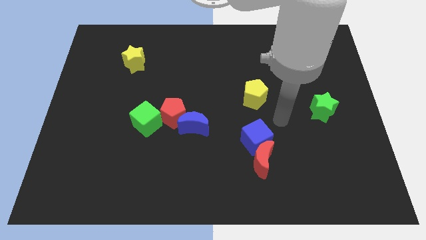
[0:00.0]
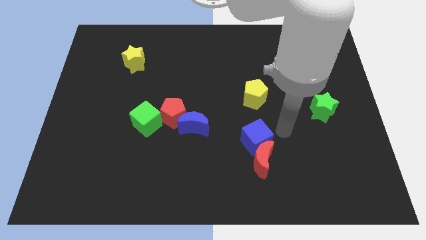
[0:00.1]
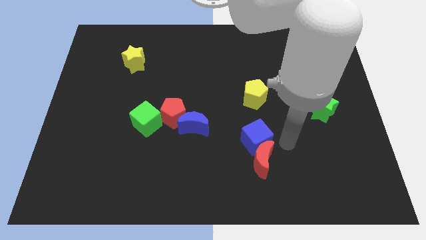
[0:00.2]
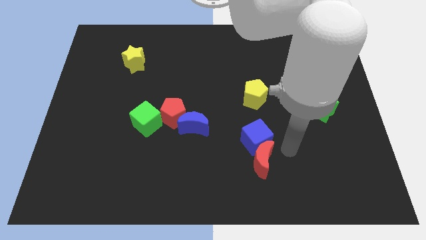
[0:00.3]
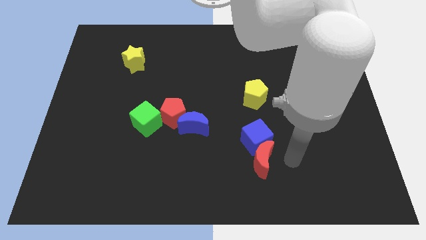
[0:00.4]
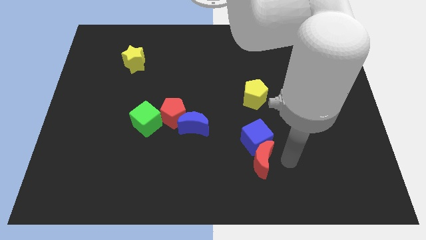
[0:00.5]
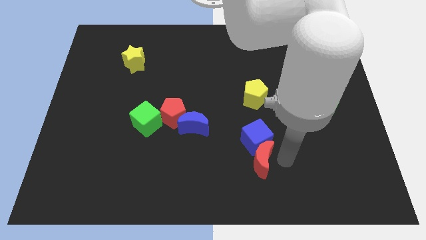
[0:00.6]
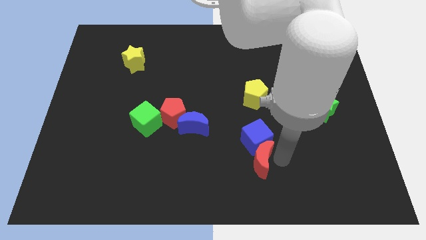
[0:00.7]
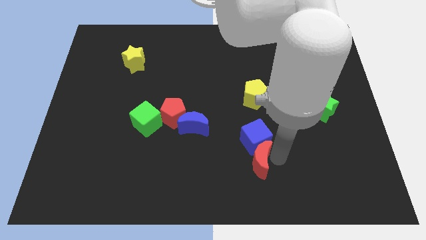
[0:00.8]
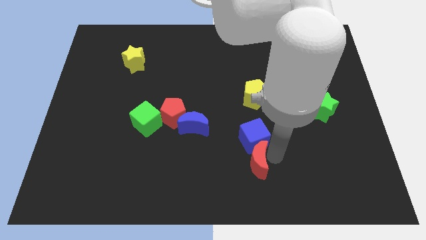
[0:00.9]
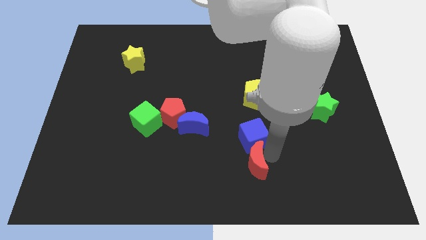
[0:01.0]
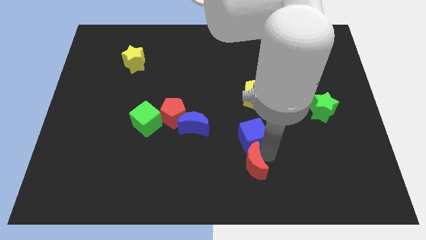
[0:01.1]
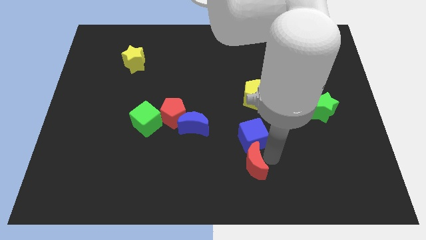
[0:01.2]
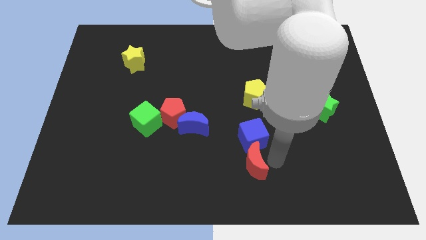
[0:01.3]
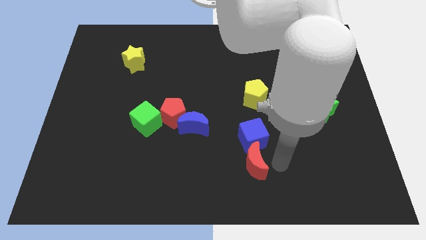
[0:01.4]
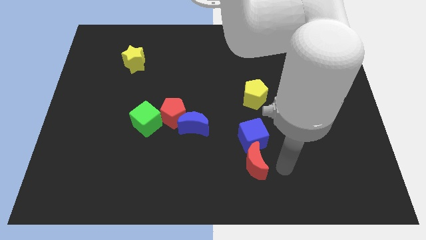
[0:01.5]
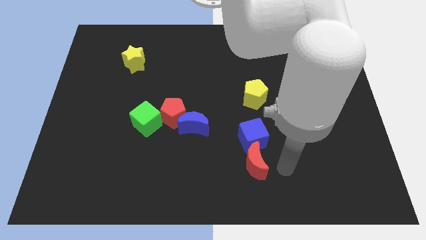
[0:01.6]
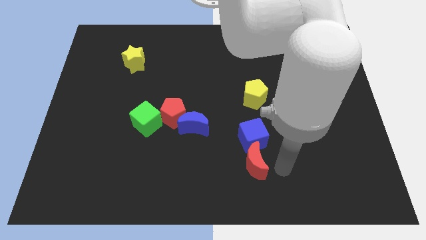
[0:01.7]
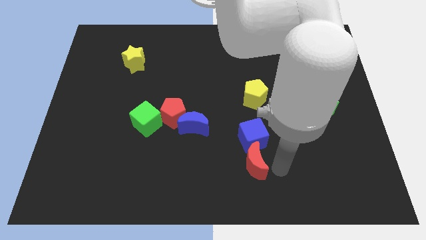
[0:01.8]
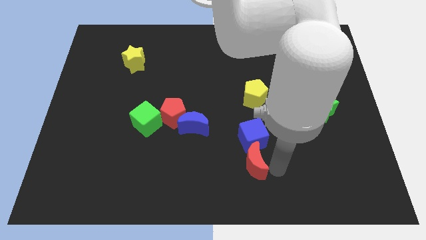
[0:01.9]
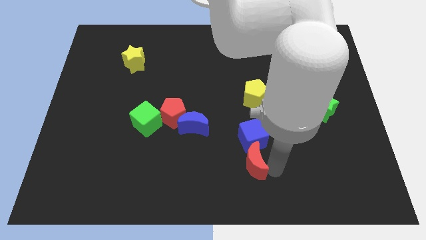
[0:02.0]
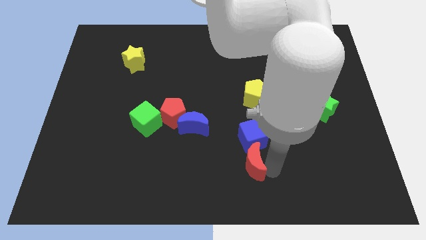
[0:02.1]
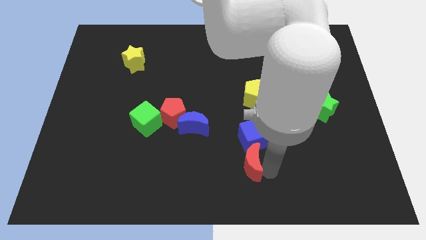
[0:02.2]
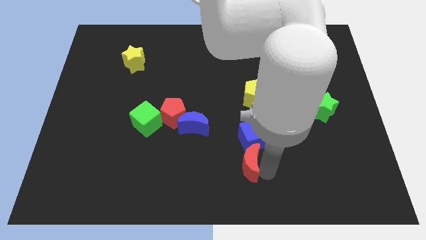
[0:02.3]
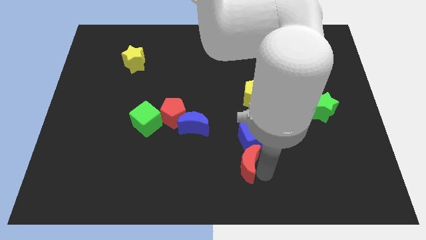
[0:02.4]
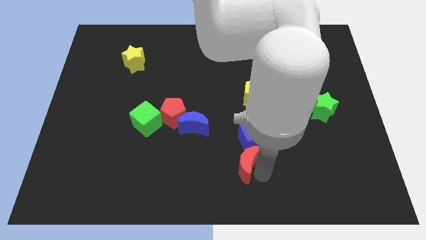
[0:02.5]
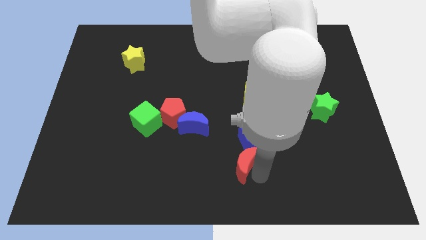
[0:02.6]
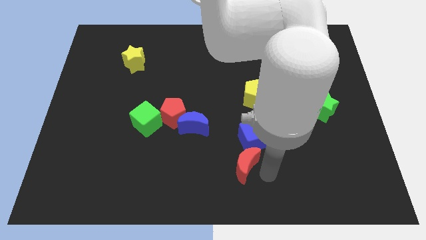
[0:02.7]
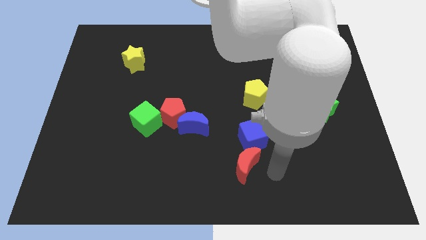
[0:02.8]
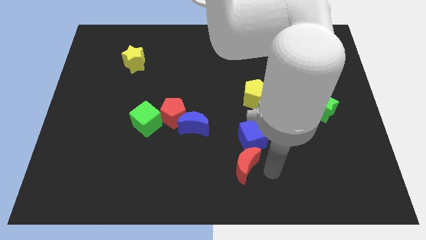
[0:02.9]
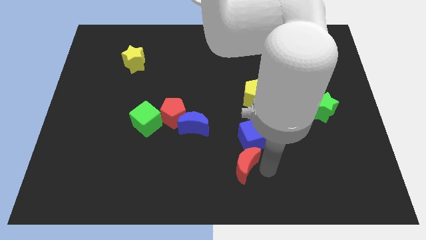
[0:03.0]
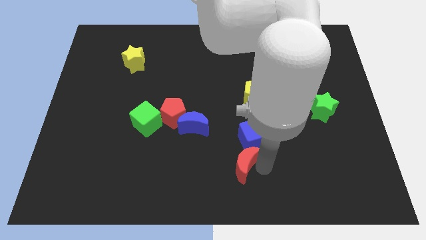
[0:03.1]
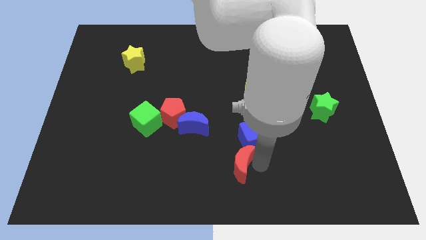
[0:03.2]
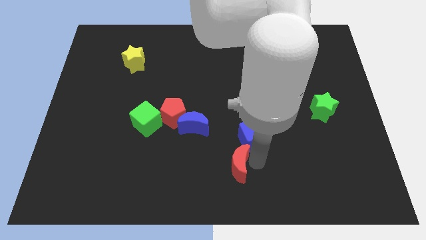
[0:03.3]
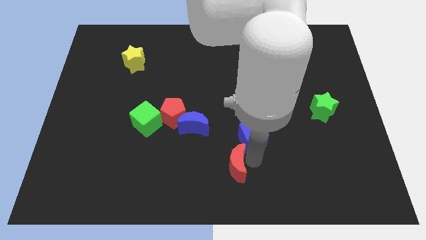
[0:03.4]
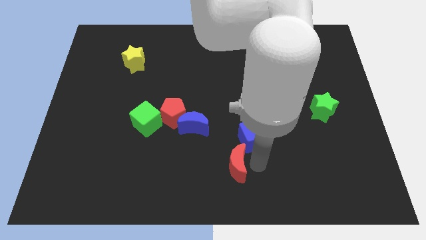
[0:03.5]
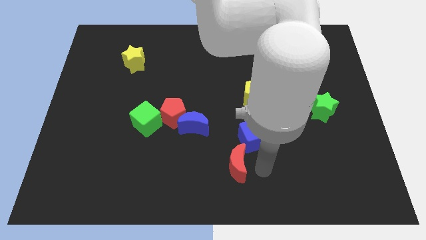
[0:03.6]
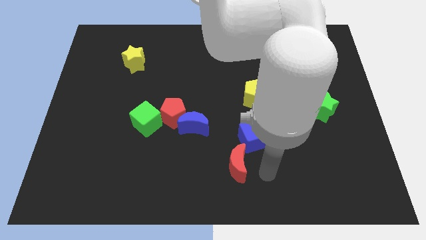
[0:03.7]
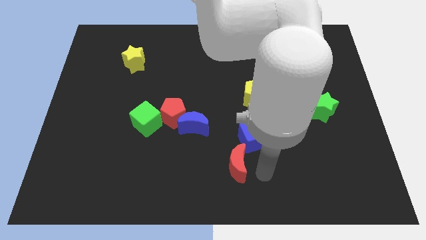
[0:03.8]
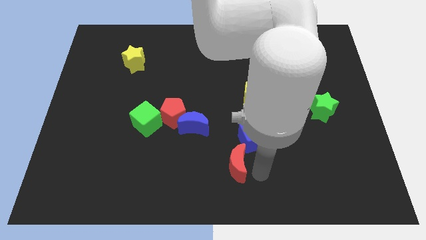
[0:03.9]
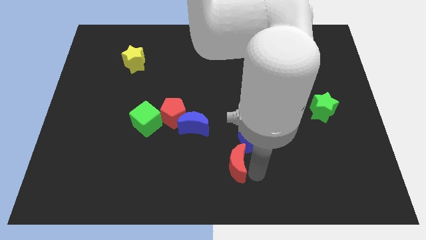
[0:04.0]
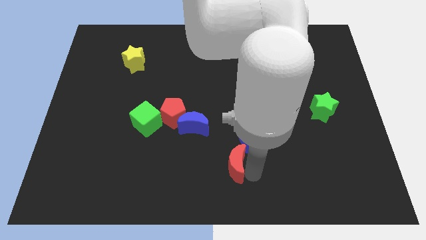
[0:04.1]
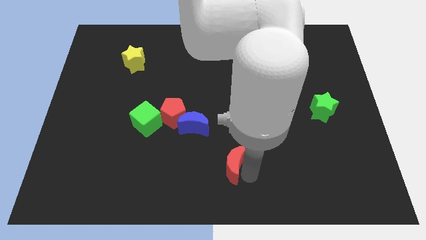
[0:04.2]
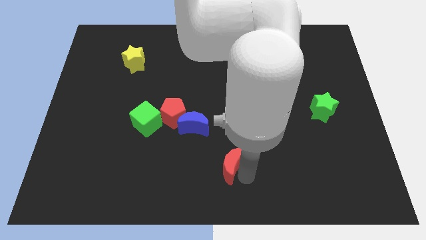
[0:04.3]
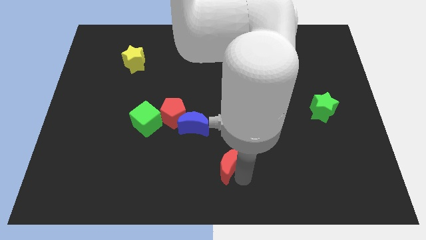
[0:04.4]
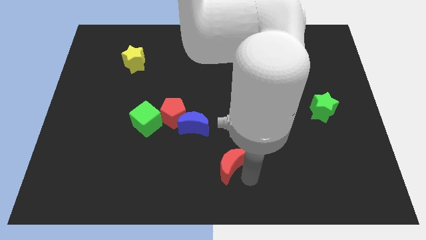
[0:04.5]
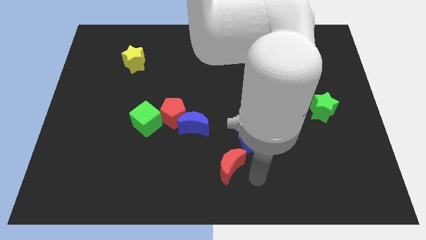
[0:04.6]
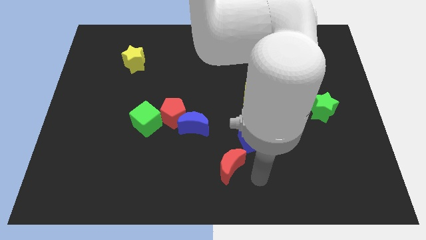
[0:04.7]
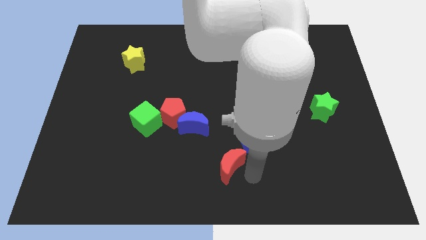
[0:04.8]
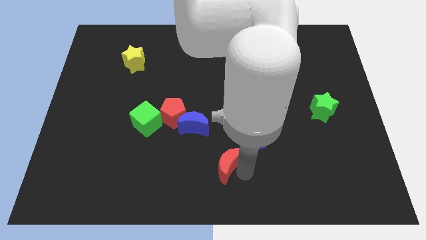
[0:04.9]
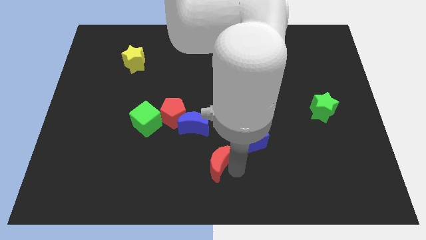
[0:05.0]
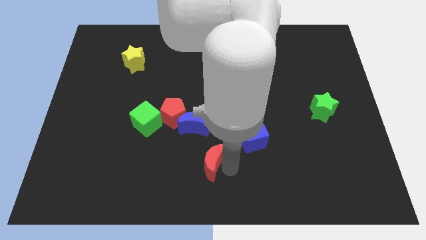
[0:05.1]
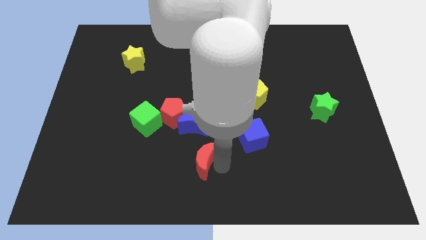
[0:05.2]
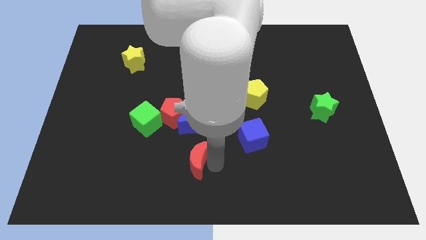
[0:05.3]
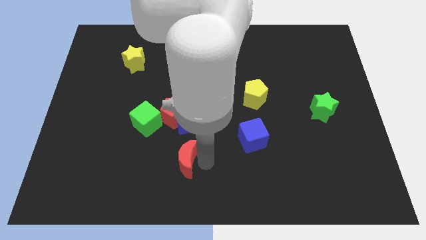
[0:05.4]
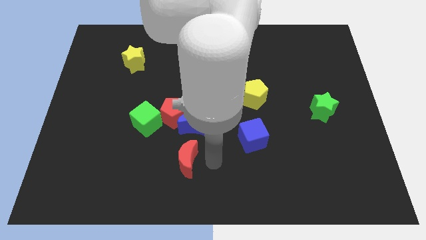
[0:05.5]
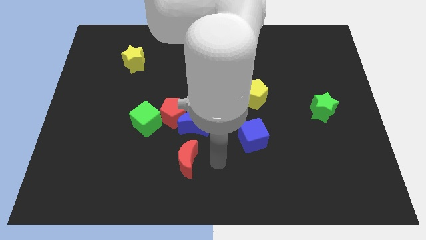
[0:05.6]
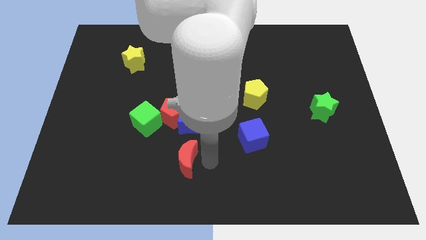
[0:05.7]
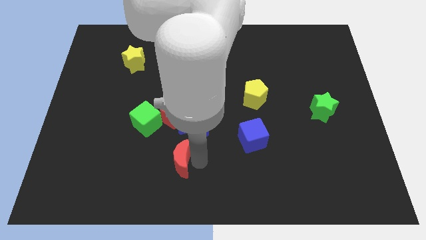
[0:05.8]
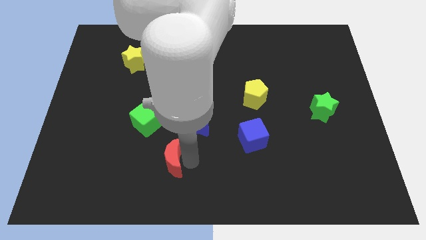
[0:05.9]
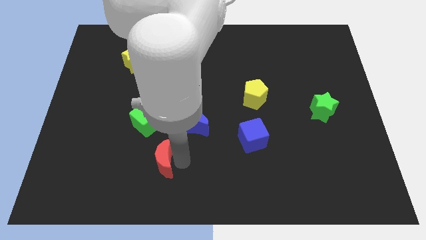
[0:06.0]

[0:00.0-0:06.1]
move the red moon to the left

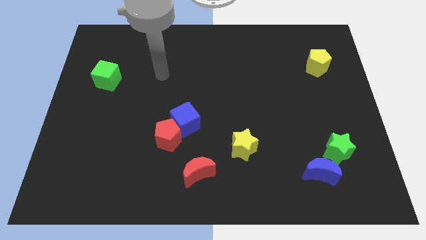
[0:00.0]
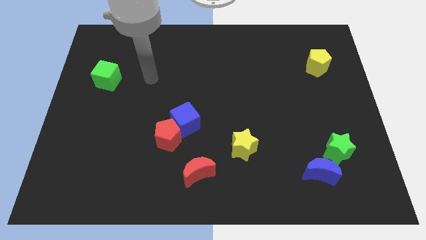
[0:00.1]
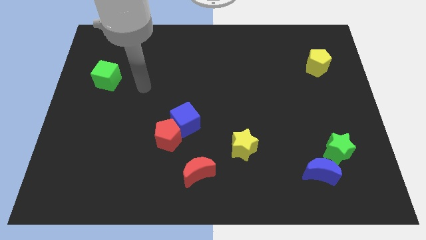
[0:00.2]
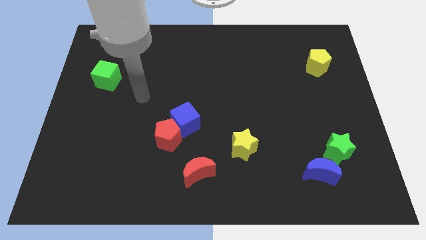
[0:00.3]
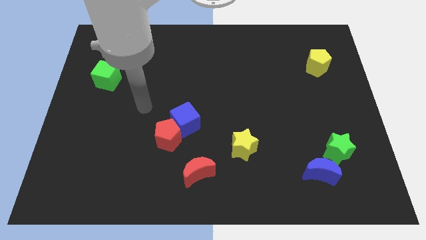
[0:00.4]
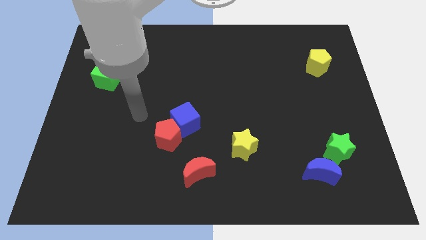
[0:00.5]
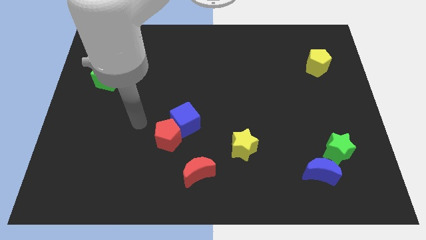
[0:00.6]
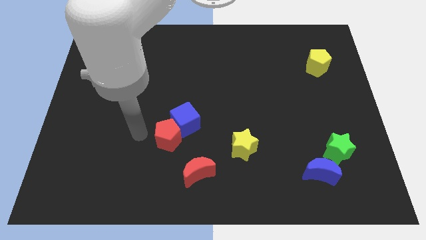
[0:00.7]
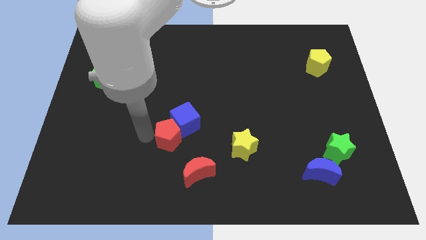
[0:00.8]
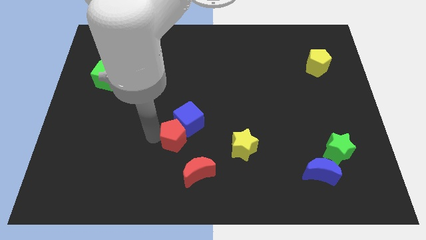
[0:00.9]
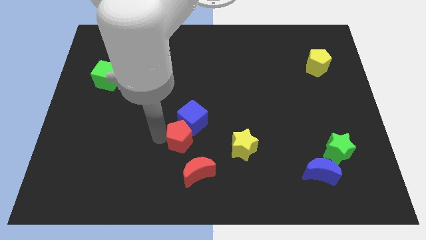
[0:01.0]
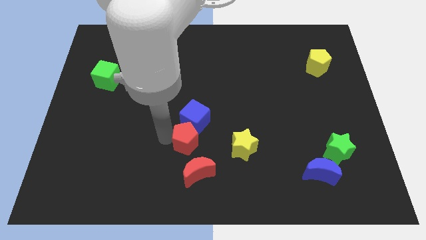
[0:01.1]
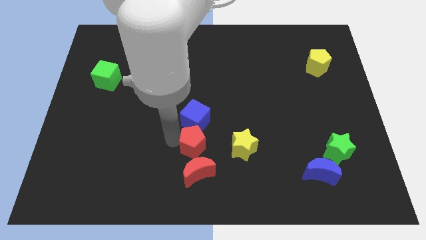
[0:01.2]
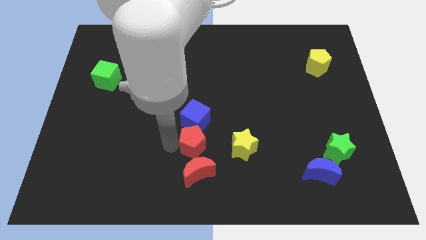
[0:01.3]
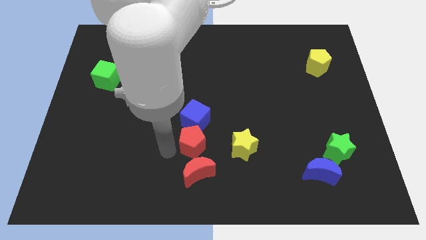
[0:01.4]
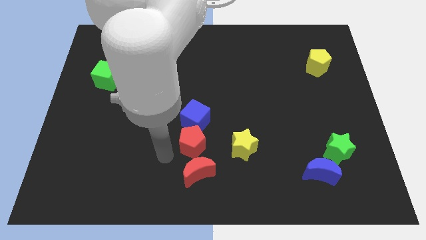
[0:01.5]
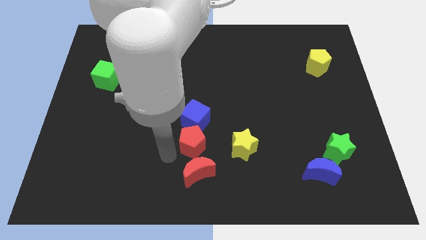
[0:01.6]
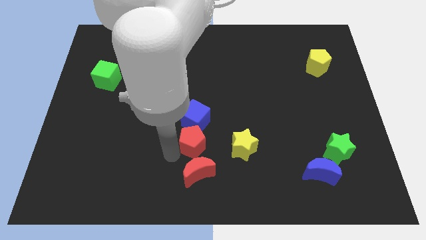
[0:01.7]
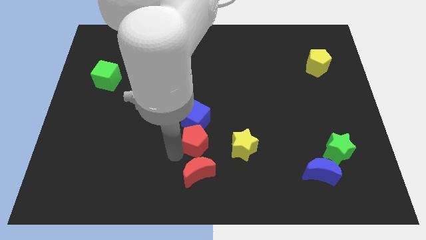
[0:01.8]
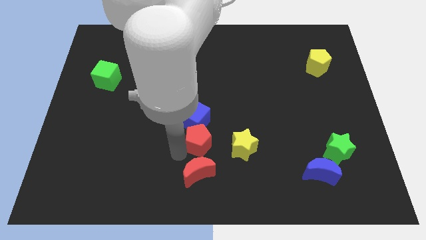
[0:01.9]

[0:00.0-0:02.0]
push the red pentagon to the right a bit
